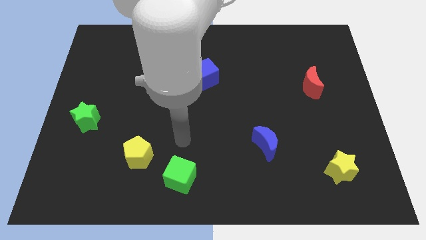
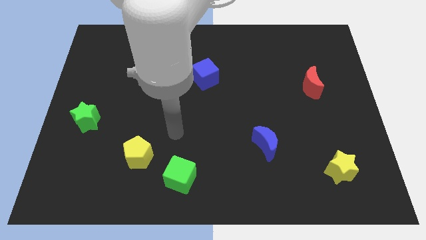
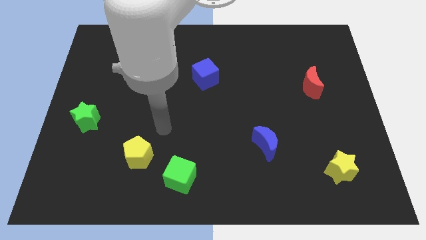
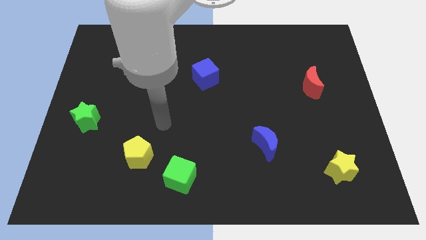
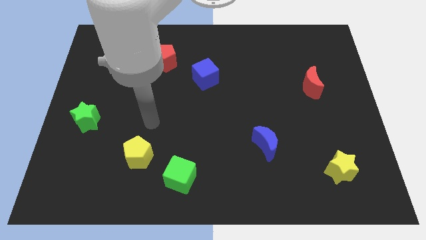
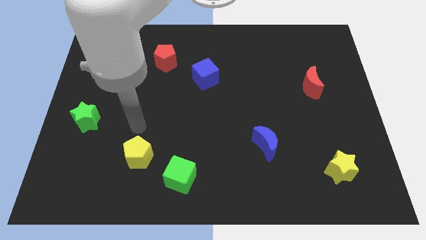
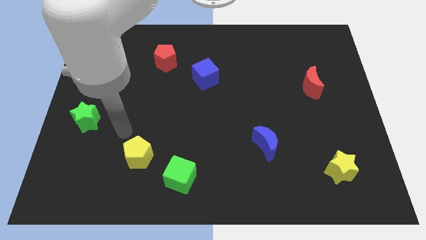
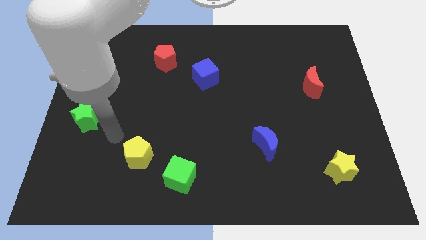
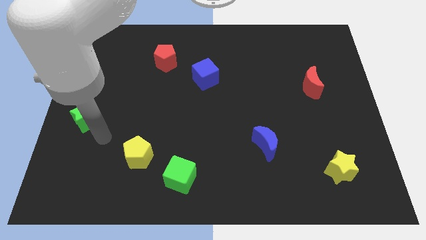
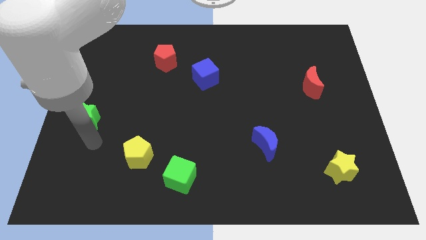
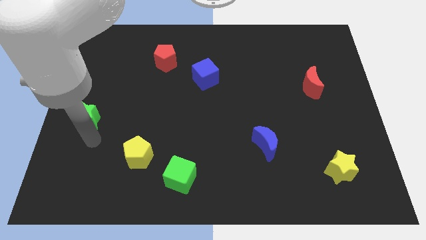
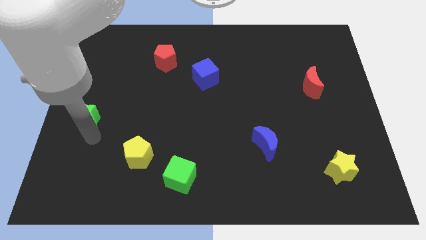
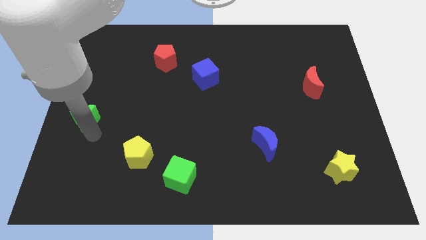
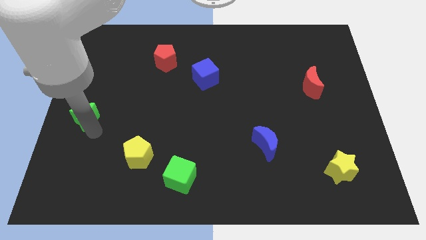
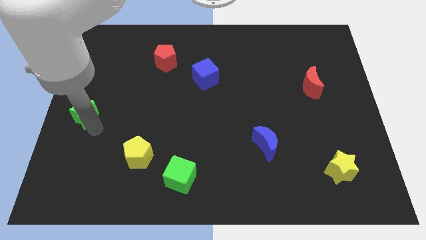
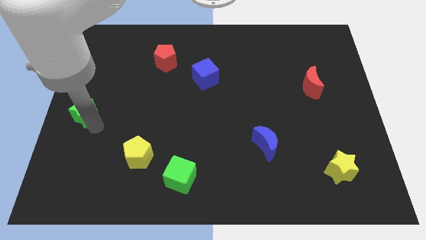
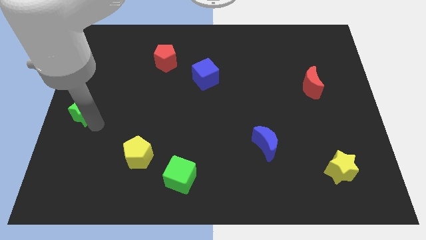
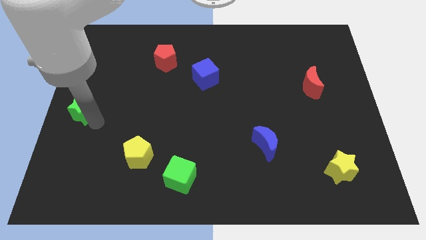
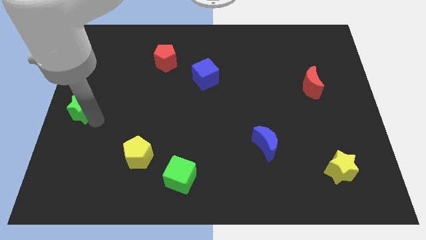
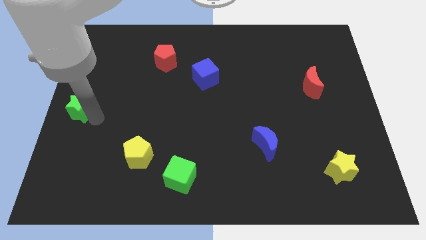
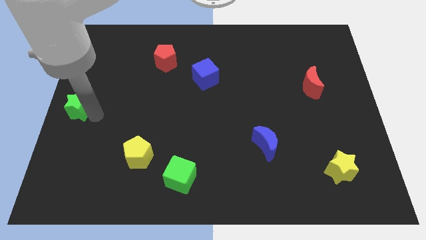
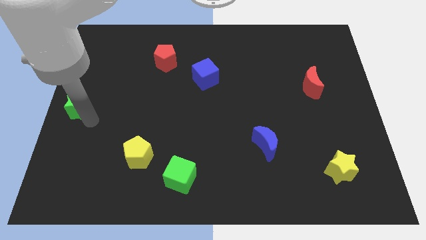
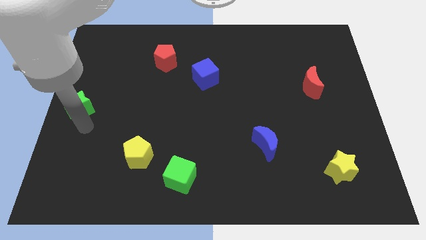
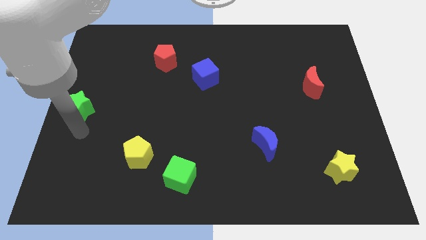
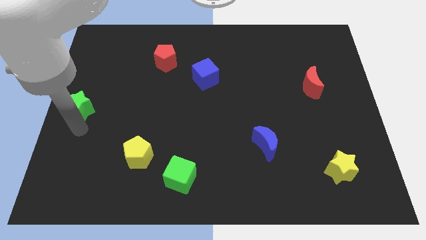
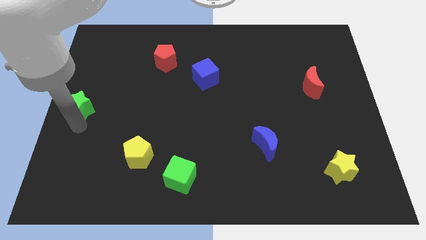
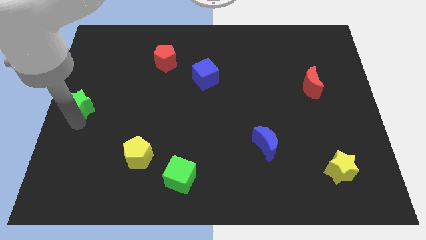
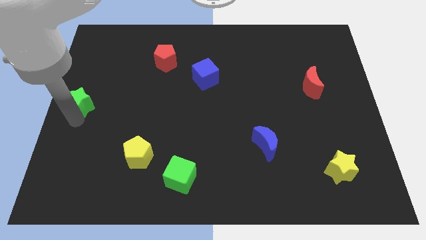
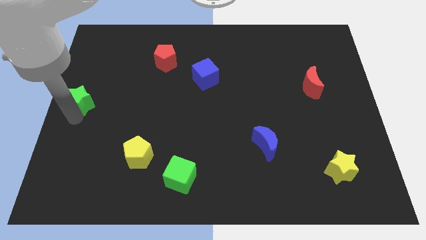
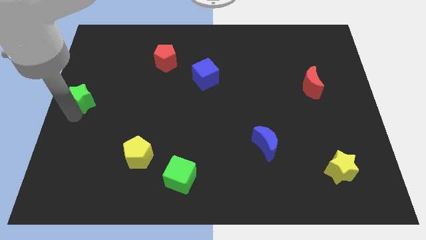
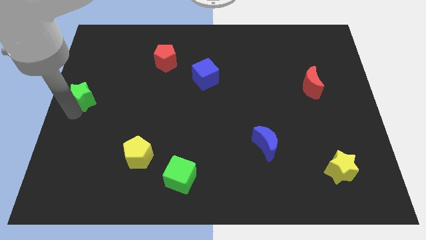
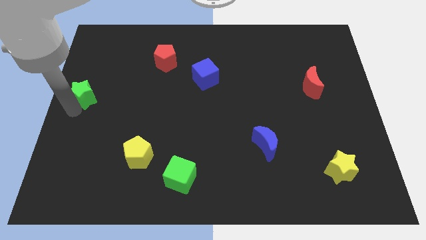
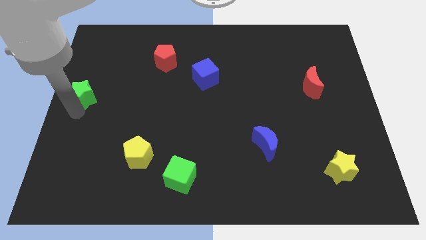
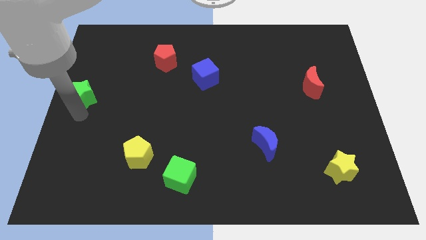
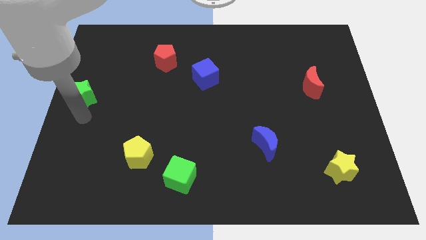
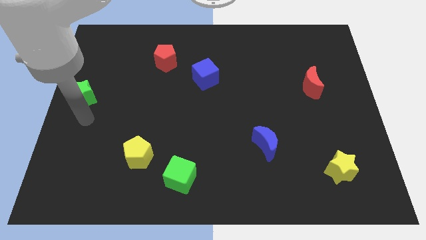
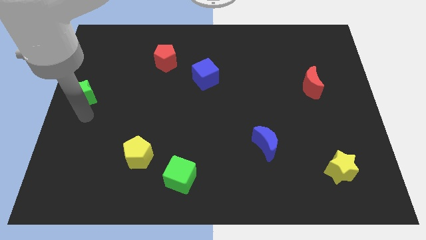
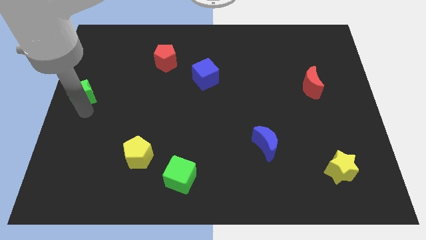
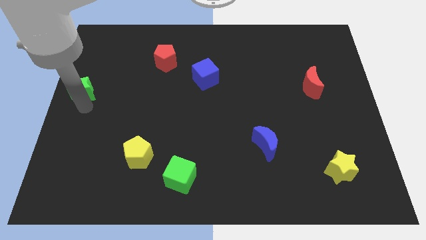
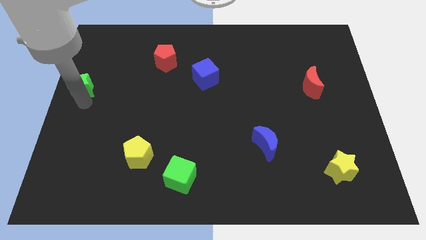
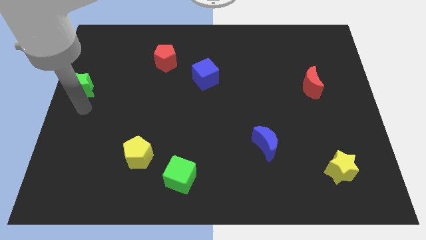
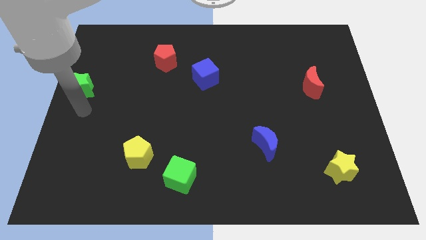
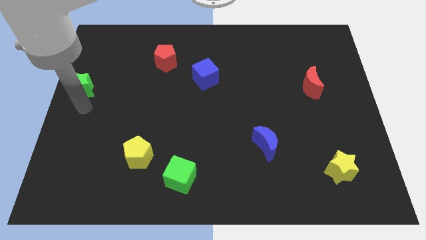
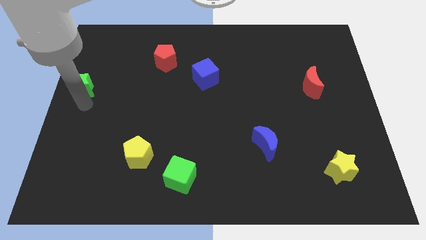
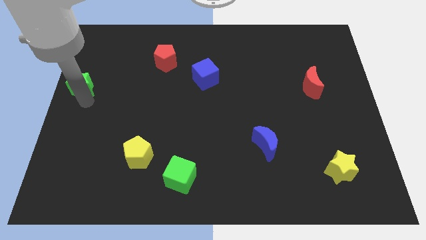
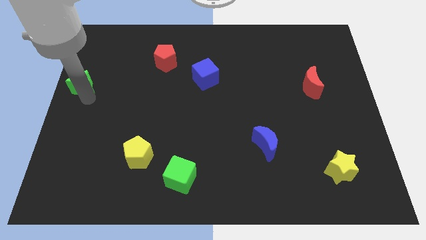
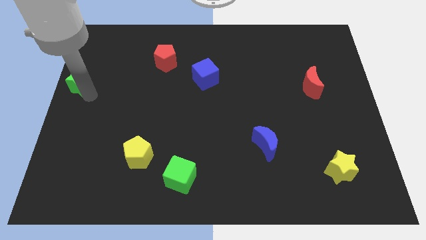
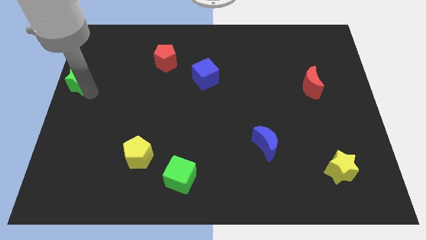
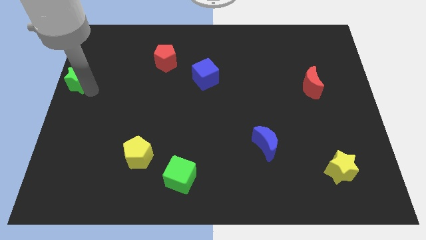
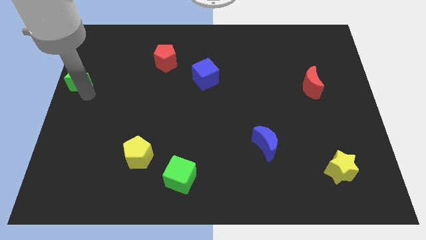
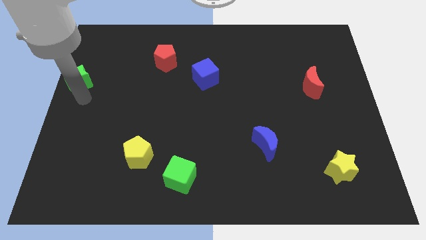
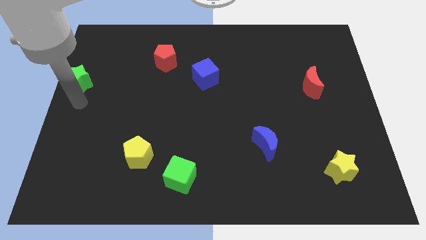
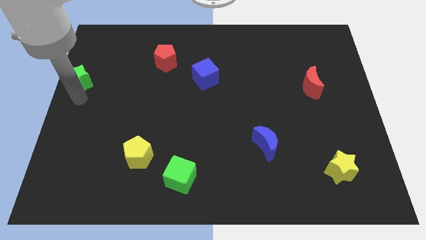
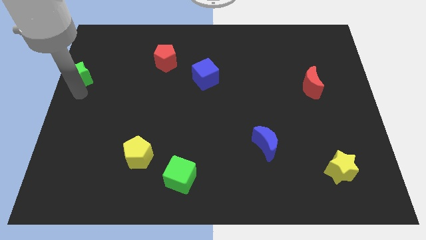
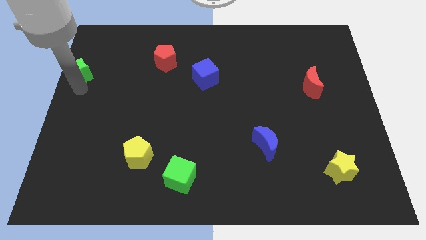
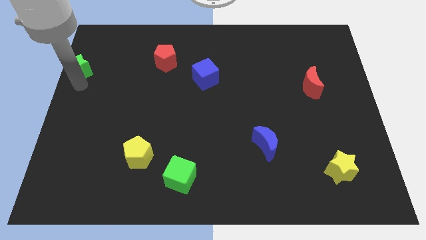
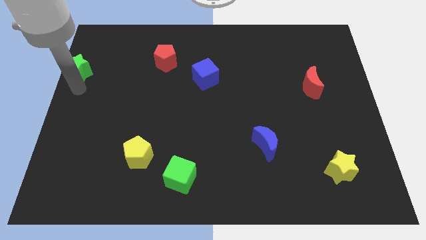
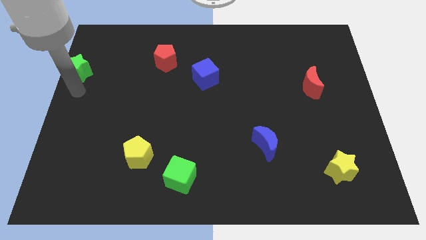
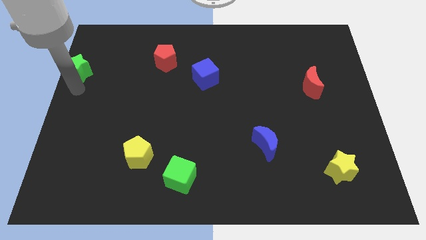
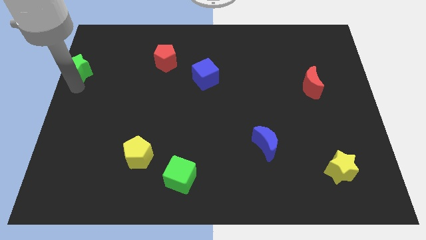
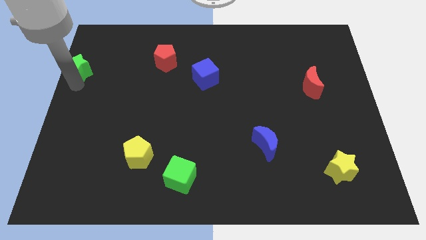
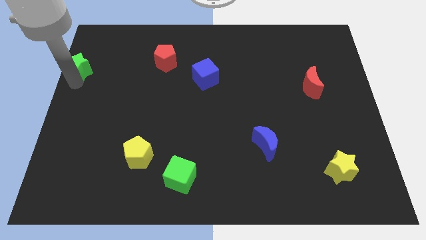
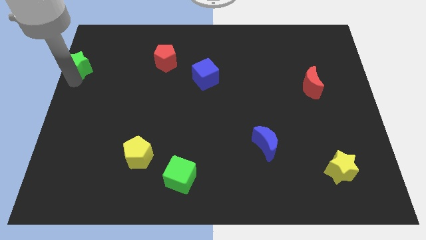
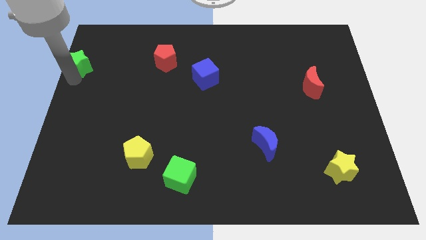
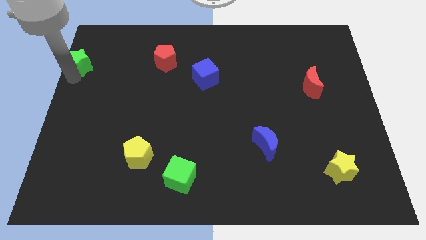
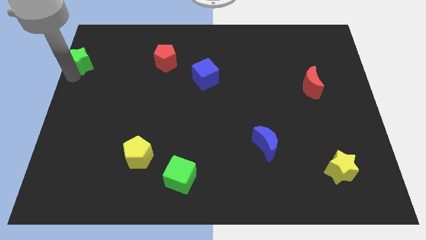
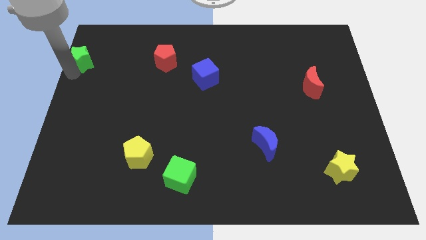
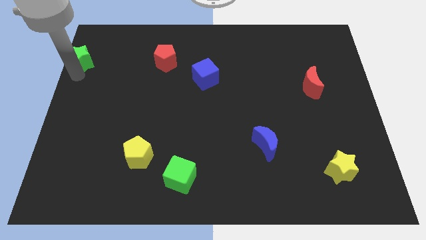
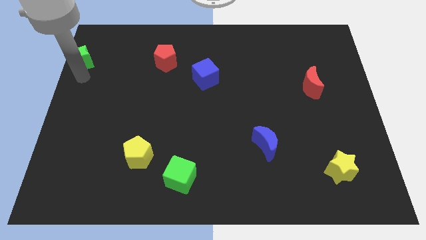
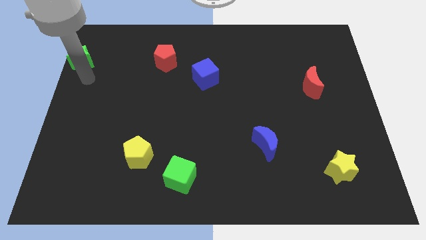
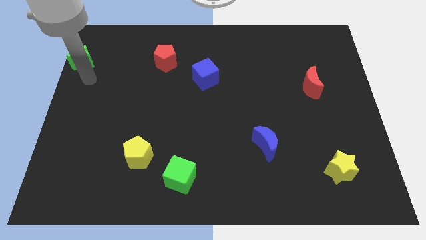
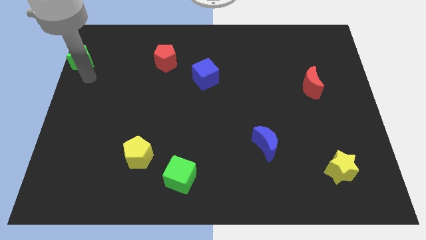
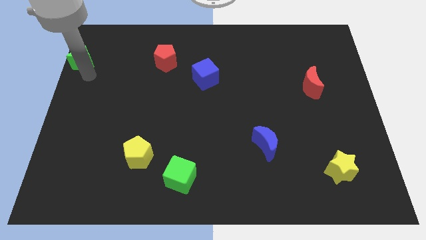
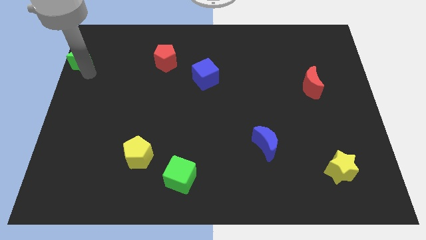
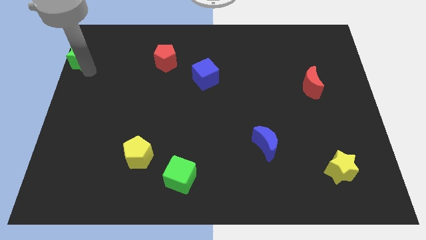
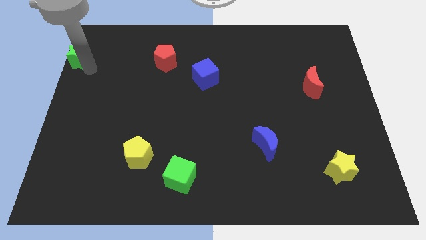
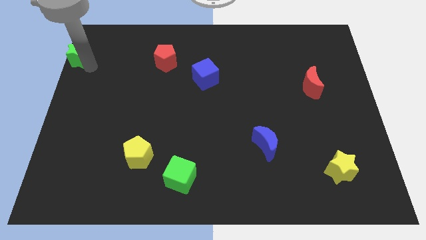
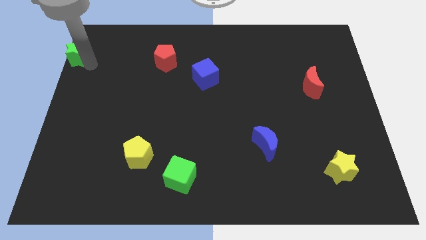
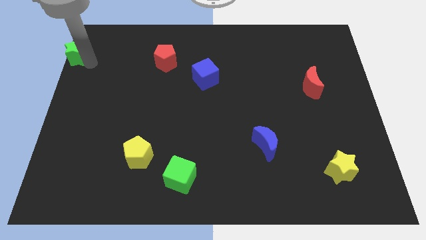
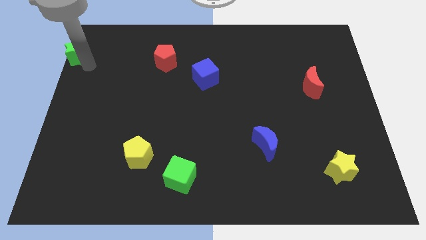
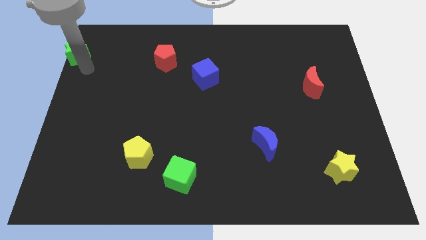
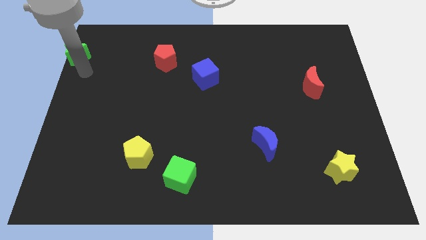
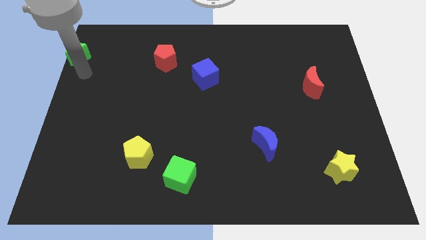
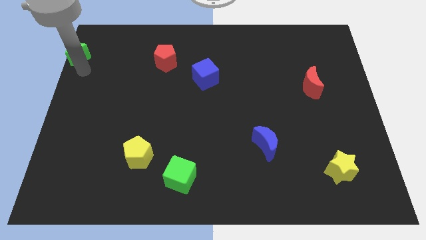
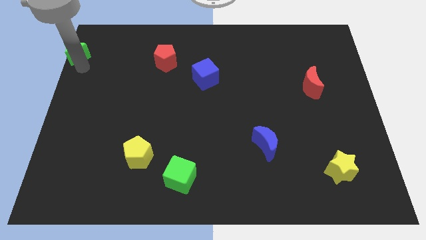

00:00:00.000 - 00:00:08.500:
move the green star to the top left corner
